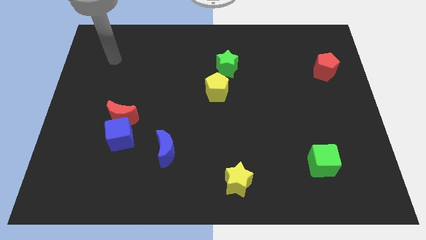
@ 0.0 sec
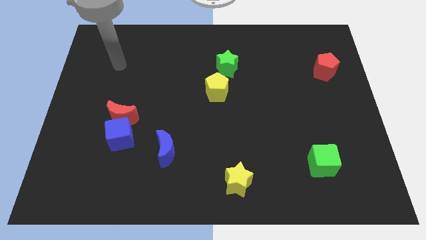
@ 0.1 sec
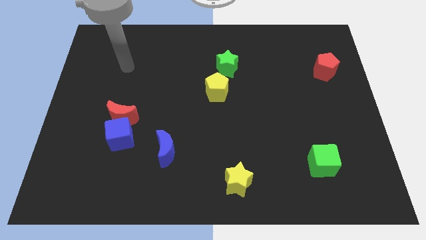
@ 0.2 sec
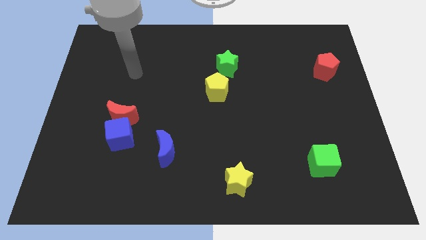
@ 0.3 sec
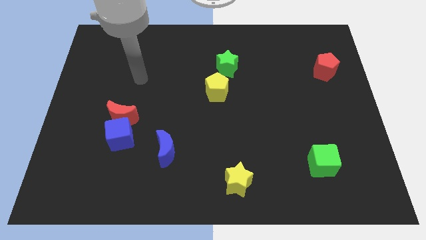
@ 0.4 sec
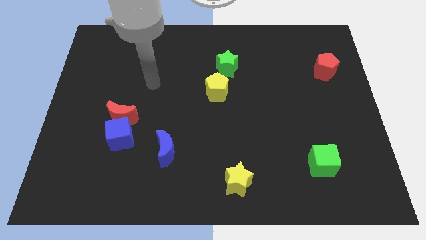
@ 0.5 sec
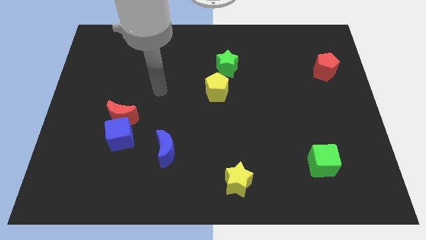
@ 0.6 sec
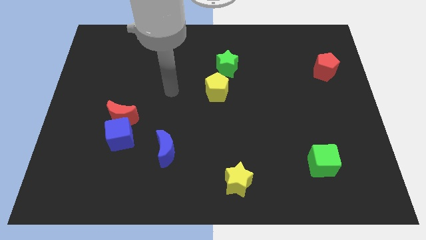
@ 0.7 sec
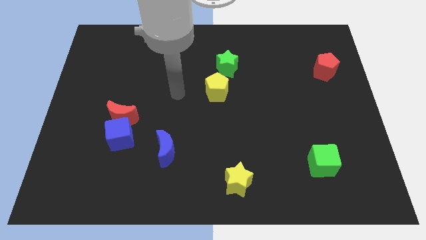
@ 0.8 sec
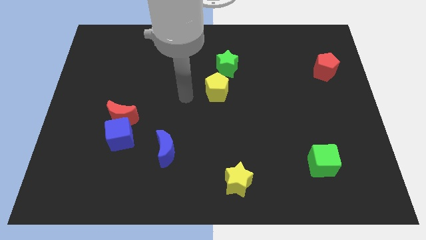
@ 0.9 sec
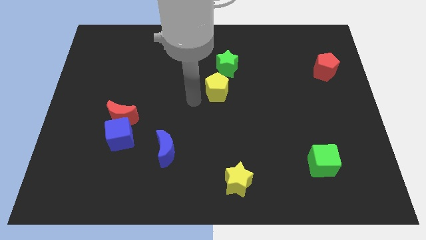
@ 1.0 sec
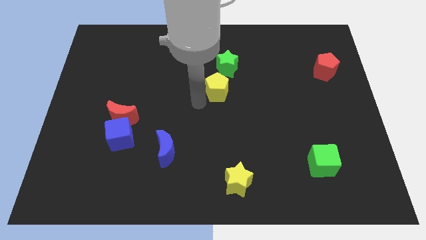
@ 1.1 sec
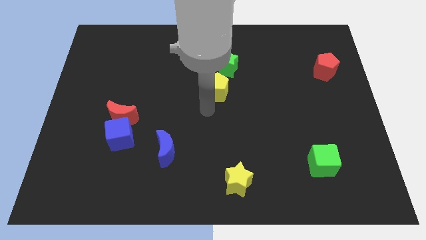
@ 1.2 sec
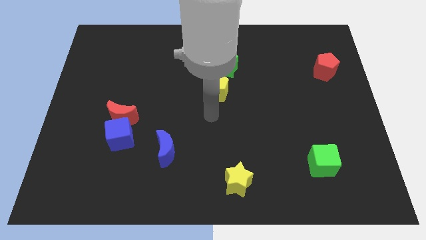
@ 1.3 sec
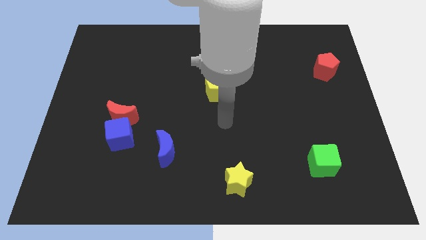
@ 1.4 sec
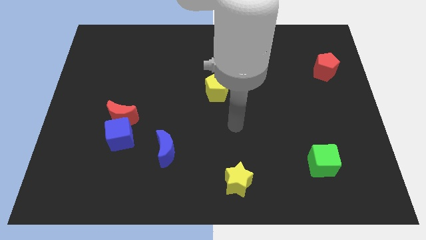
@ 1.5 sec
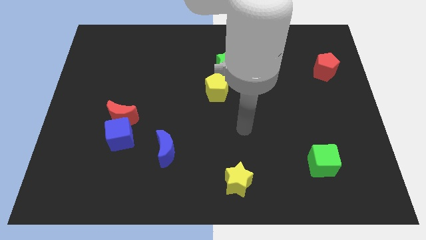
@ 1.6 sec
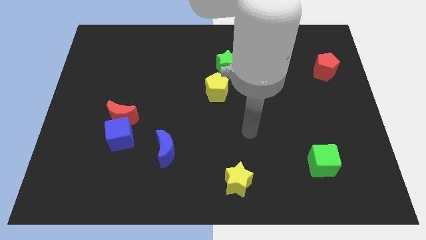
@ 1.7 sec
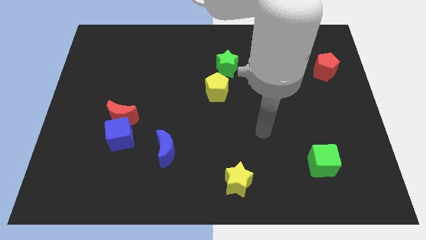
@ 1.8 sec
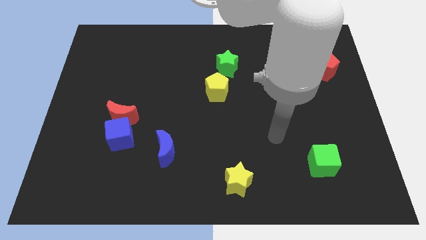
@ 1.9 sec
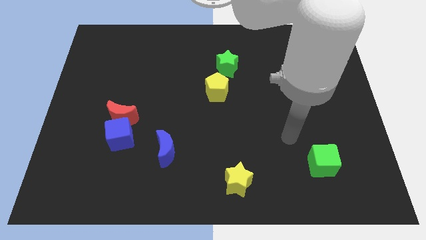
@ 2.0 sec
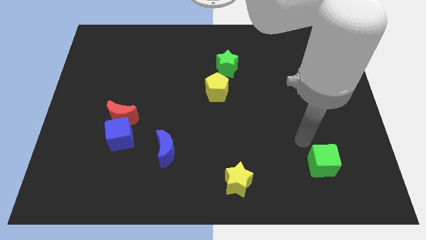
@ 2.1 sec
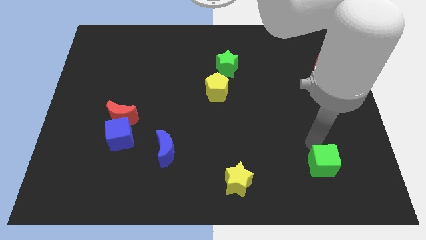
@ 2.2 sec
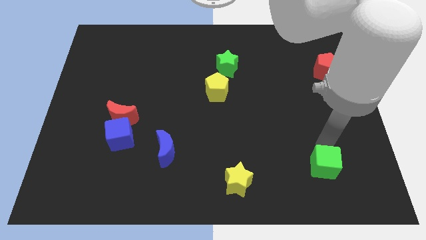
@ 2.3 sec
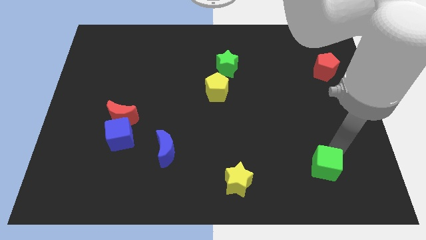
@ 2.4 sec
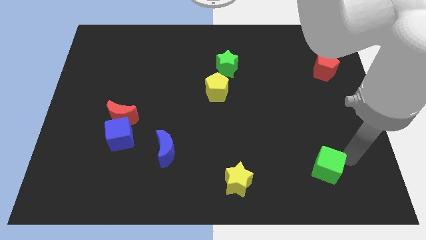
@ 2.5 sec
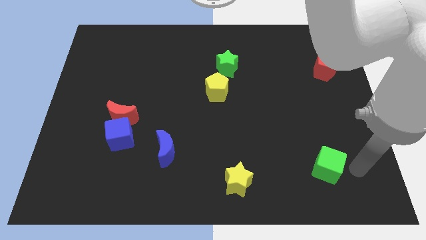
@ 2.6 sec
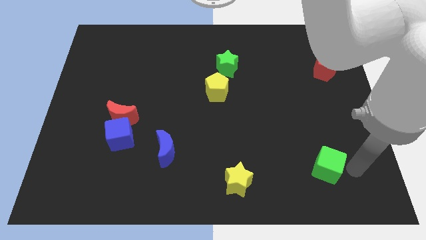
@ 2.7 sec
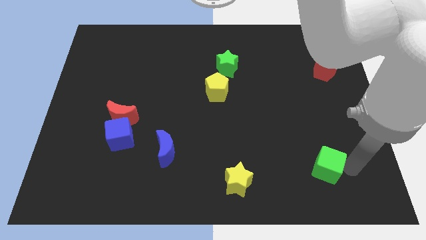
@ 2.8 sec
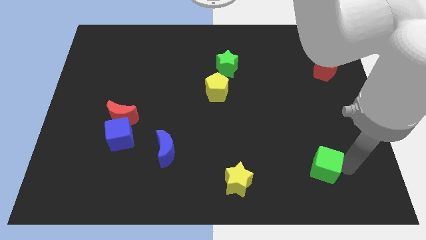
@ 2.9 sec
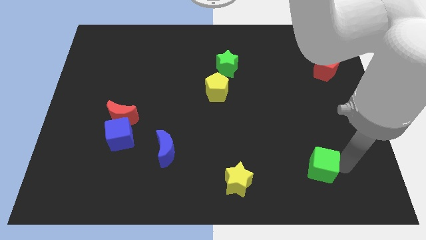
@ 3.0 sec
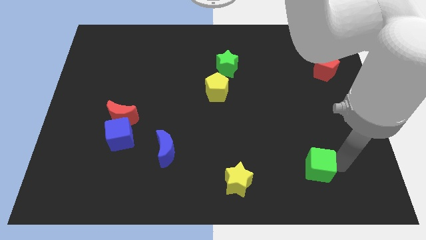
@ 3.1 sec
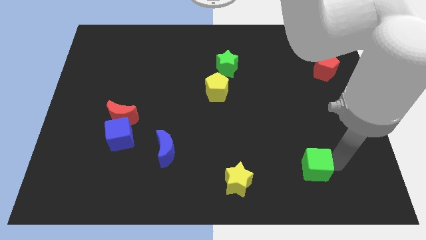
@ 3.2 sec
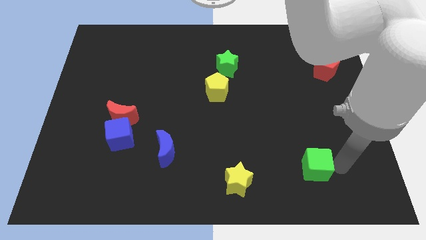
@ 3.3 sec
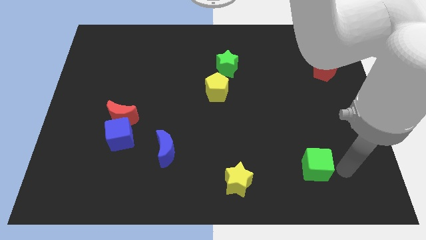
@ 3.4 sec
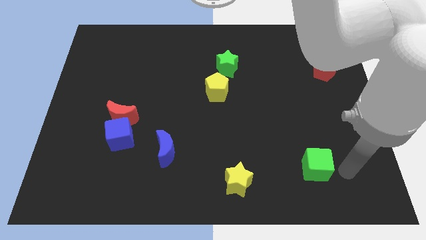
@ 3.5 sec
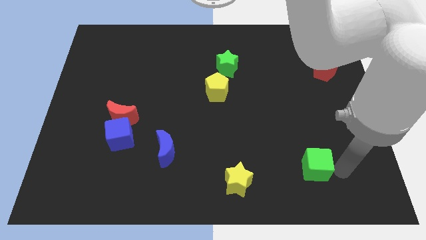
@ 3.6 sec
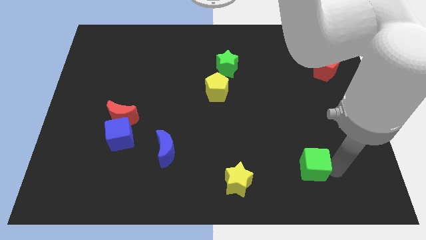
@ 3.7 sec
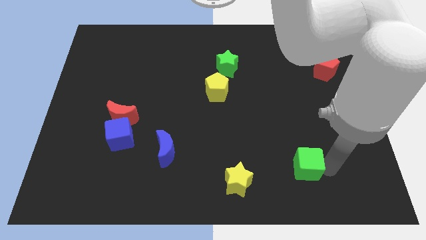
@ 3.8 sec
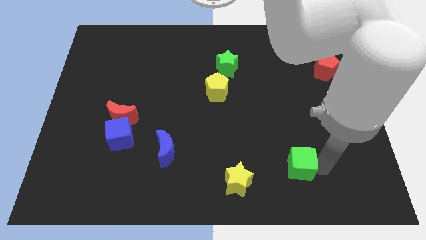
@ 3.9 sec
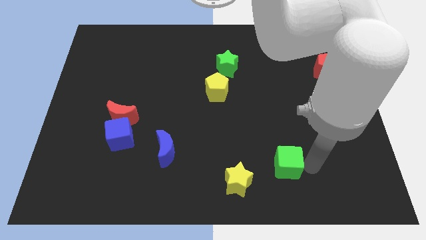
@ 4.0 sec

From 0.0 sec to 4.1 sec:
slightly push the green cube left

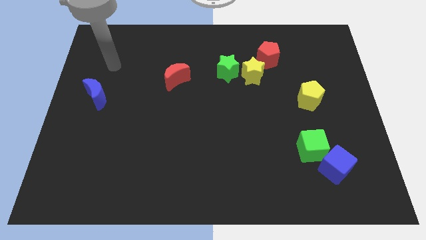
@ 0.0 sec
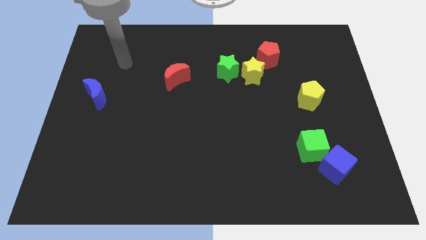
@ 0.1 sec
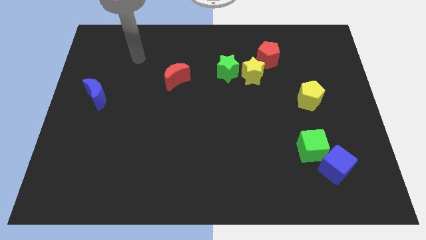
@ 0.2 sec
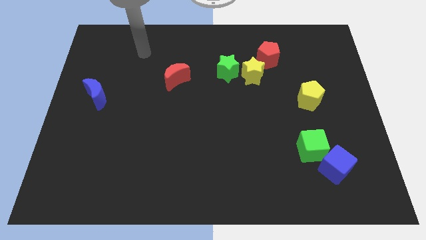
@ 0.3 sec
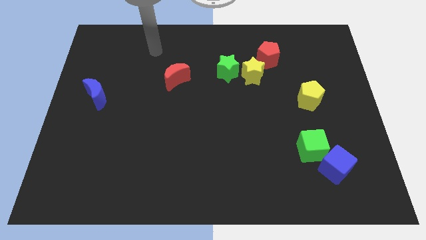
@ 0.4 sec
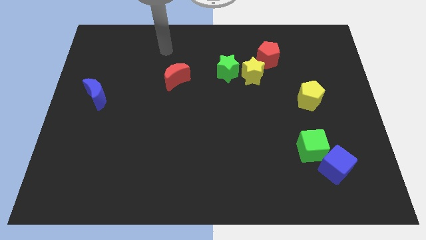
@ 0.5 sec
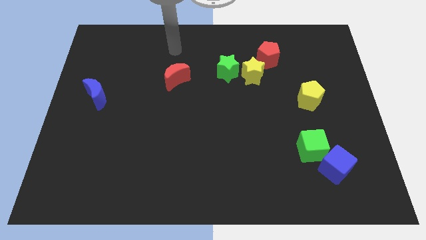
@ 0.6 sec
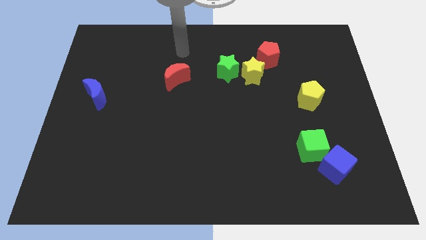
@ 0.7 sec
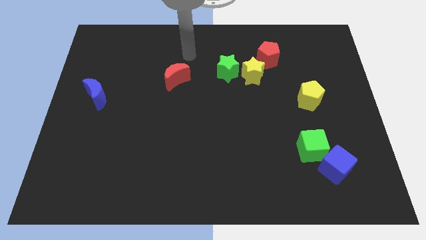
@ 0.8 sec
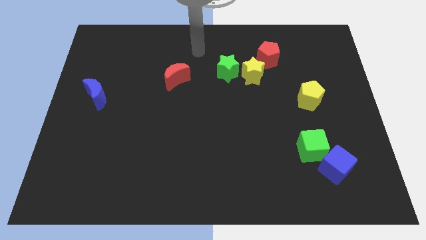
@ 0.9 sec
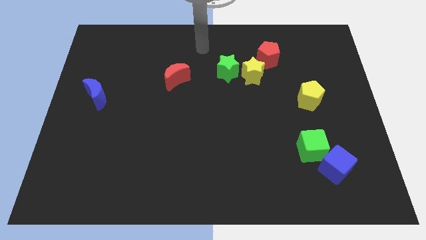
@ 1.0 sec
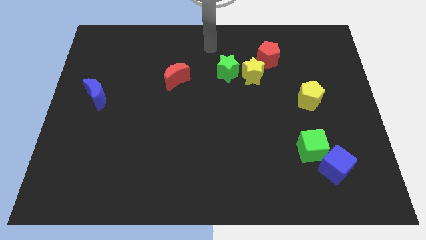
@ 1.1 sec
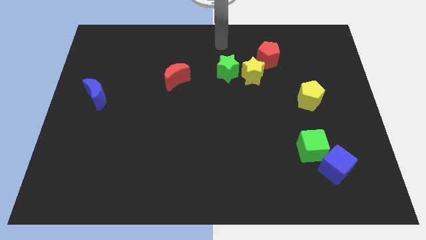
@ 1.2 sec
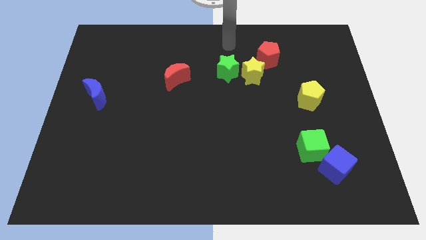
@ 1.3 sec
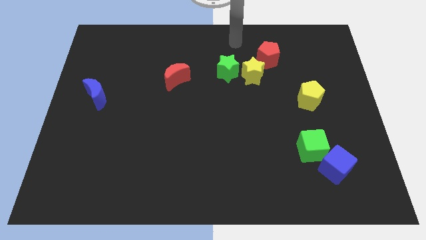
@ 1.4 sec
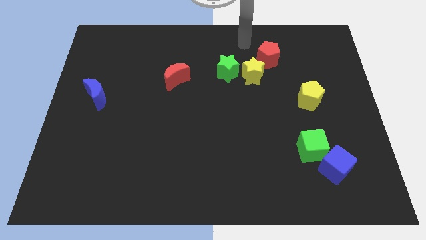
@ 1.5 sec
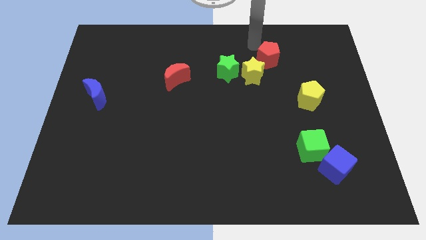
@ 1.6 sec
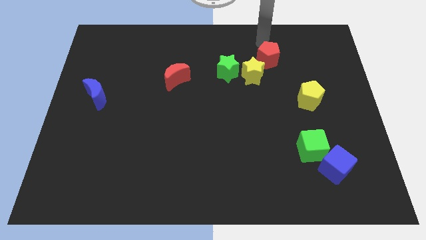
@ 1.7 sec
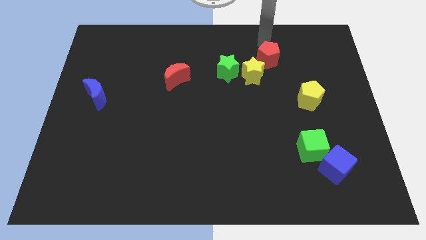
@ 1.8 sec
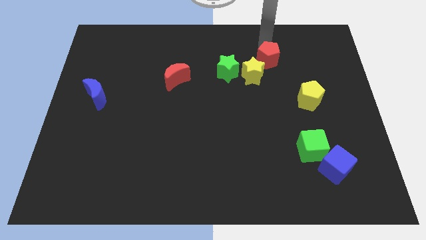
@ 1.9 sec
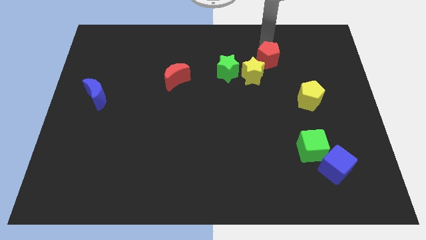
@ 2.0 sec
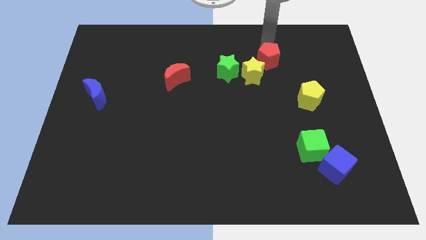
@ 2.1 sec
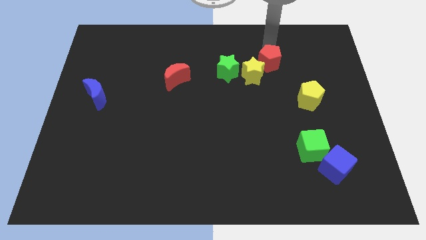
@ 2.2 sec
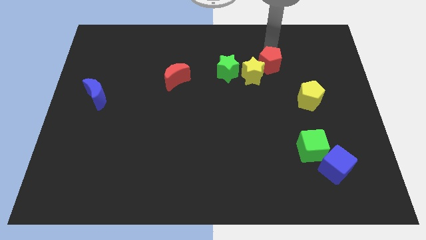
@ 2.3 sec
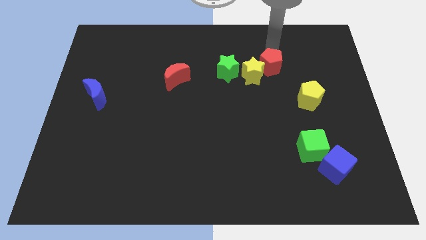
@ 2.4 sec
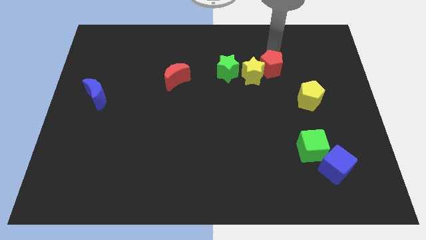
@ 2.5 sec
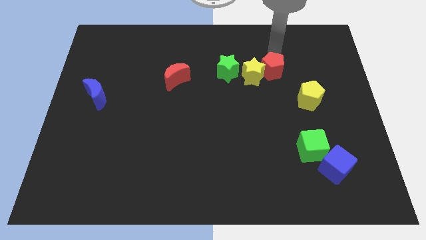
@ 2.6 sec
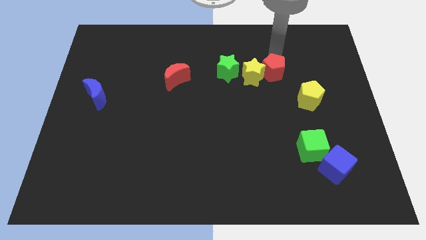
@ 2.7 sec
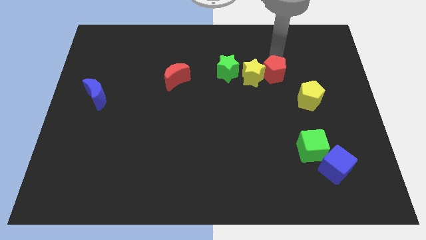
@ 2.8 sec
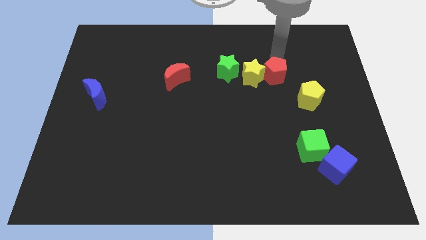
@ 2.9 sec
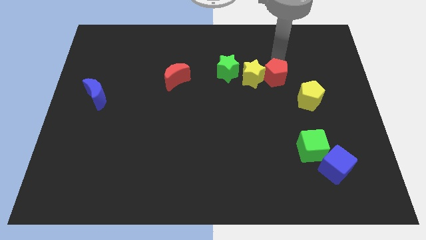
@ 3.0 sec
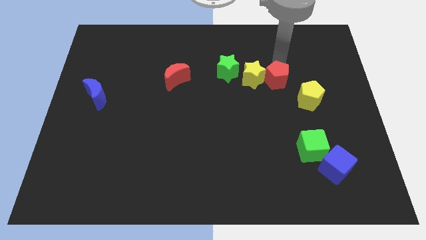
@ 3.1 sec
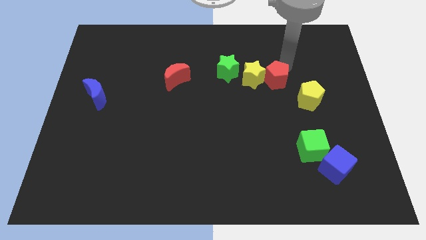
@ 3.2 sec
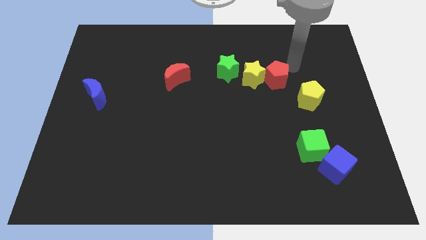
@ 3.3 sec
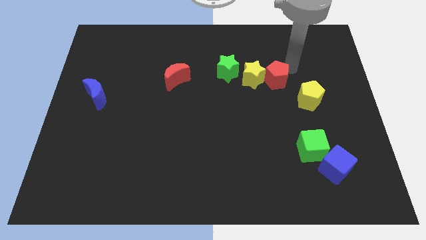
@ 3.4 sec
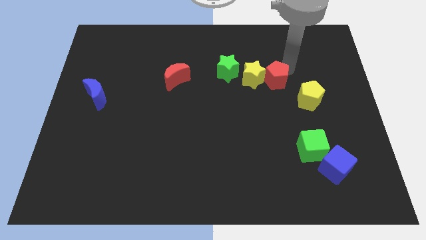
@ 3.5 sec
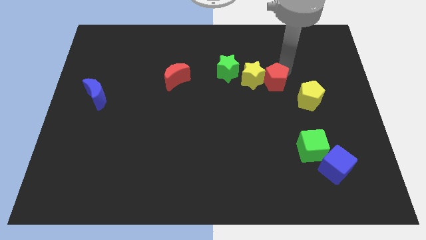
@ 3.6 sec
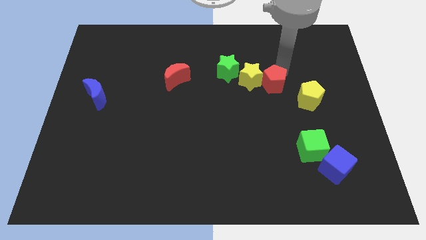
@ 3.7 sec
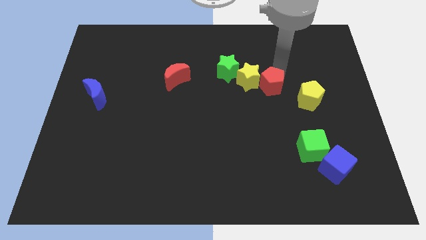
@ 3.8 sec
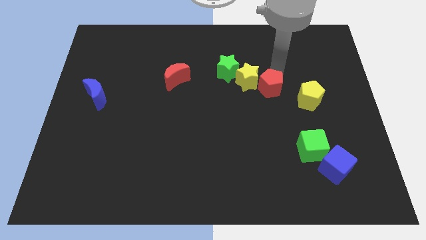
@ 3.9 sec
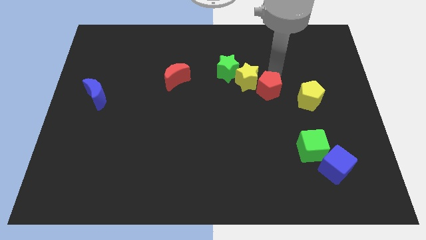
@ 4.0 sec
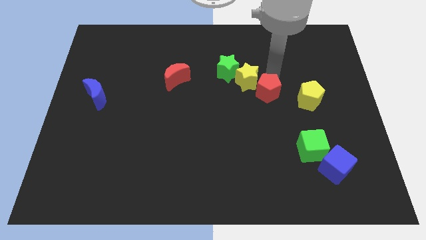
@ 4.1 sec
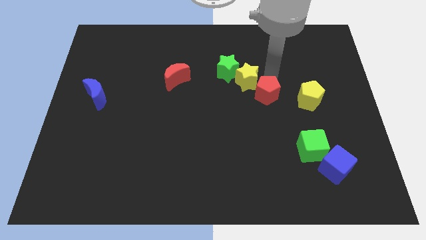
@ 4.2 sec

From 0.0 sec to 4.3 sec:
move the red pentagon a little bit downwards and then to the left
